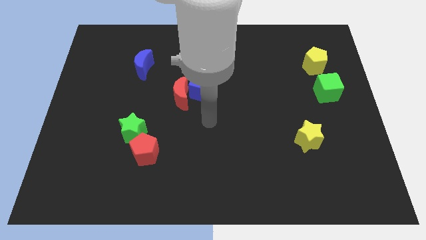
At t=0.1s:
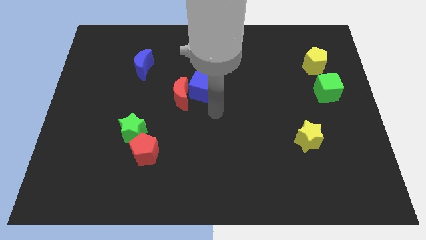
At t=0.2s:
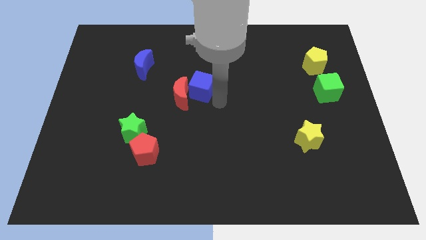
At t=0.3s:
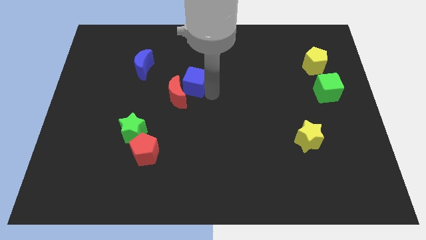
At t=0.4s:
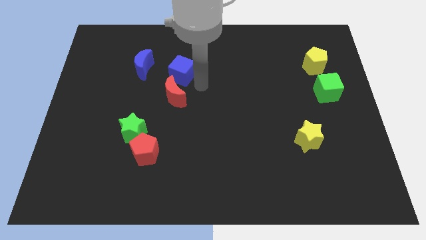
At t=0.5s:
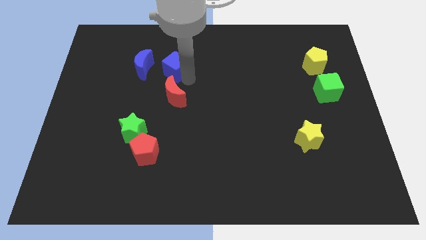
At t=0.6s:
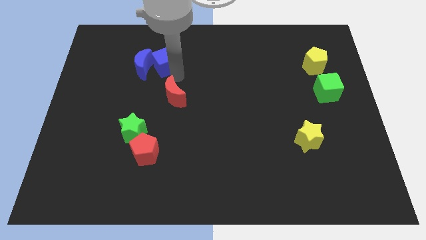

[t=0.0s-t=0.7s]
move the red moon away from the blue cube

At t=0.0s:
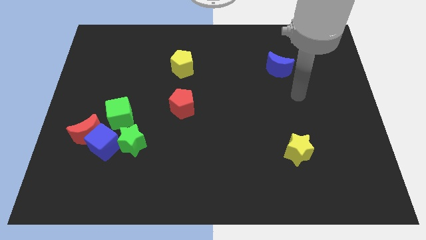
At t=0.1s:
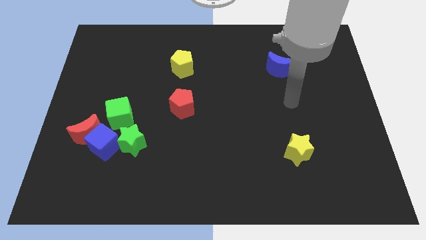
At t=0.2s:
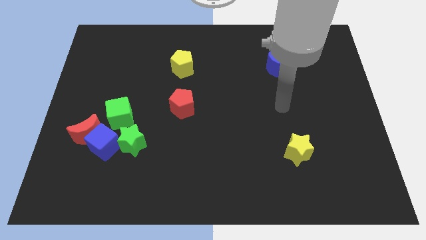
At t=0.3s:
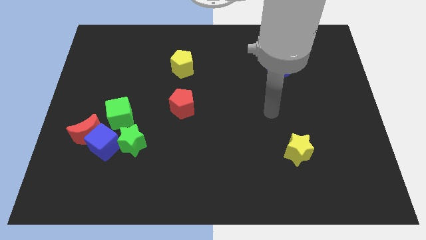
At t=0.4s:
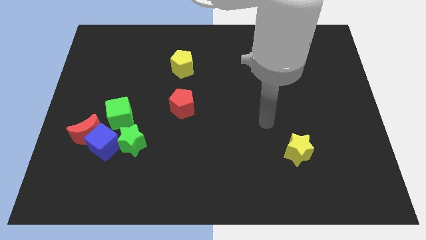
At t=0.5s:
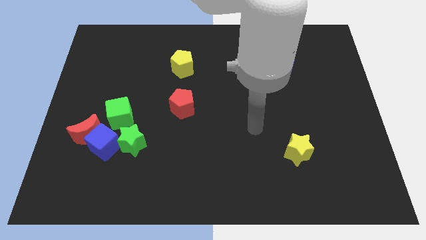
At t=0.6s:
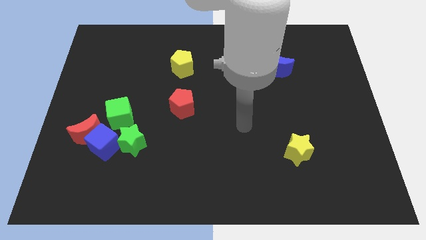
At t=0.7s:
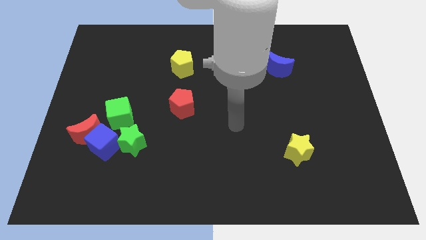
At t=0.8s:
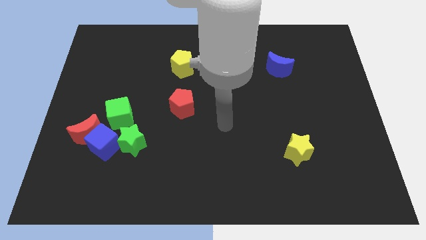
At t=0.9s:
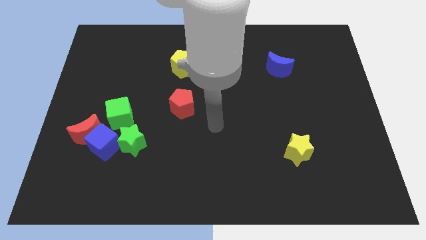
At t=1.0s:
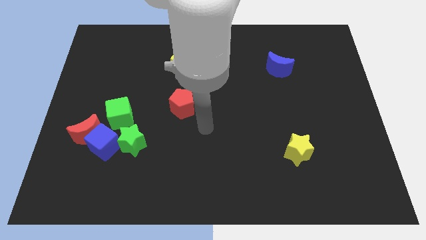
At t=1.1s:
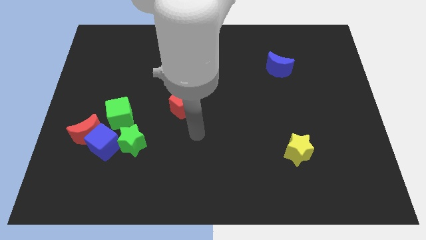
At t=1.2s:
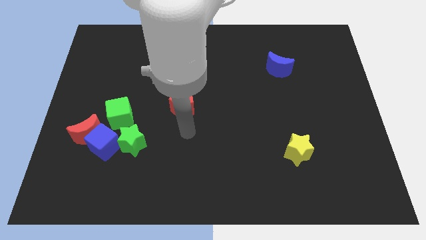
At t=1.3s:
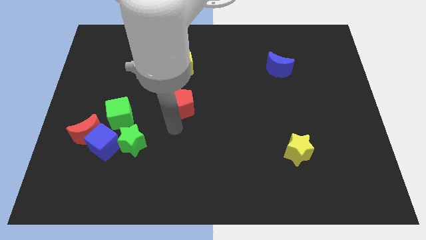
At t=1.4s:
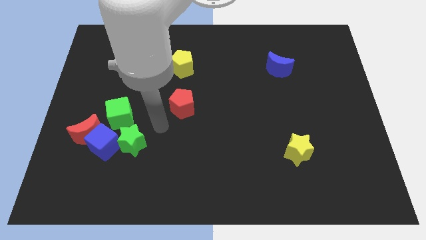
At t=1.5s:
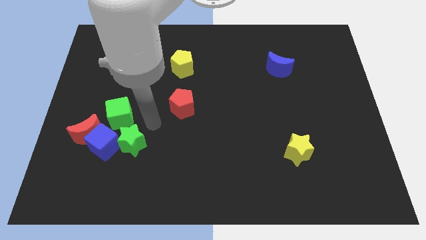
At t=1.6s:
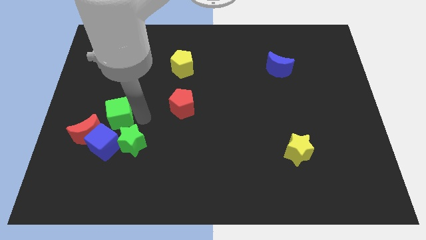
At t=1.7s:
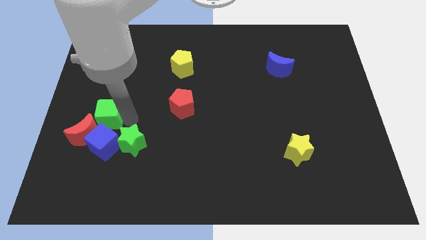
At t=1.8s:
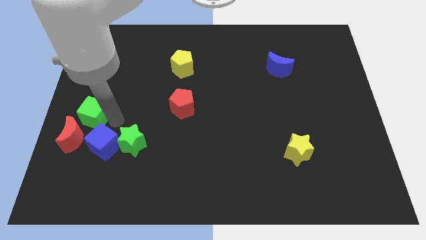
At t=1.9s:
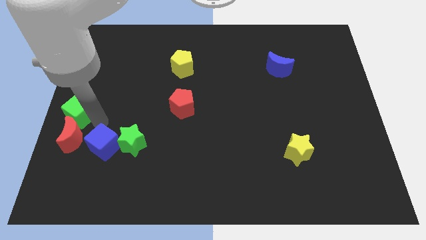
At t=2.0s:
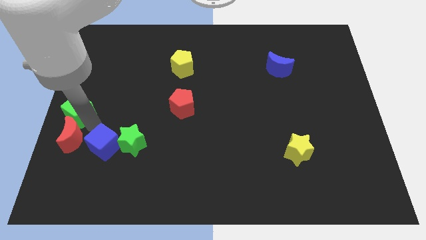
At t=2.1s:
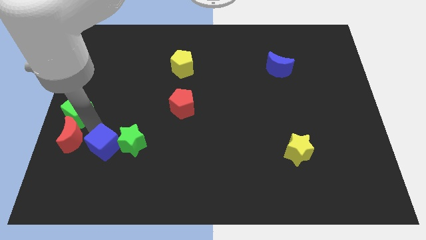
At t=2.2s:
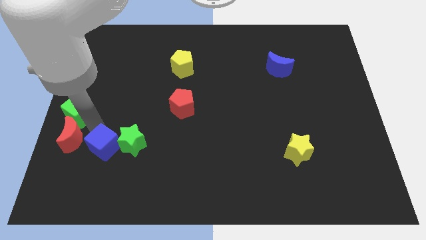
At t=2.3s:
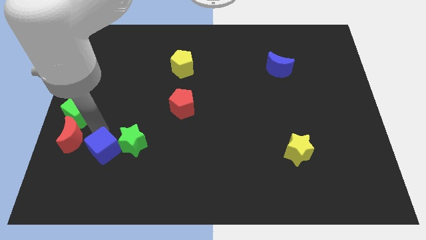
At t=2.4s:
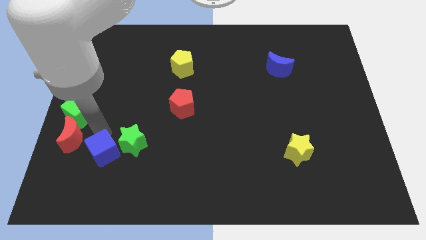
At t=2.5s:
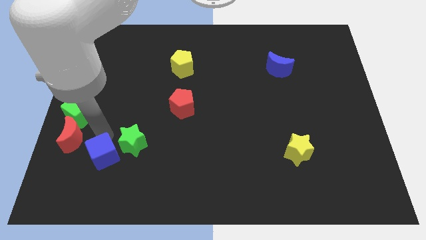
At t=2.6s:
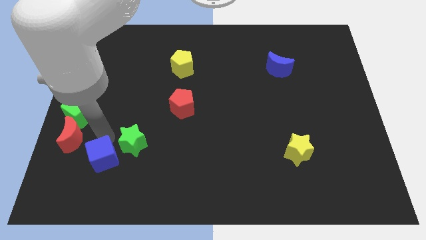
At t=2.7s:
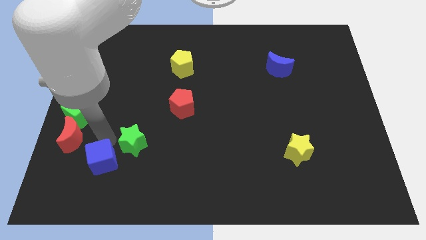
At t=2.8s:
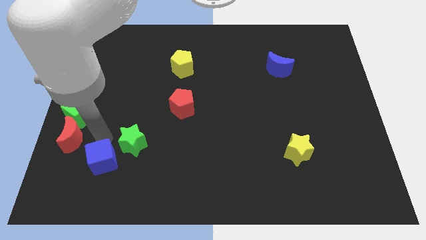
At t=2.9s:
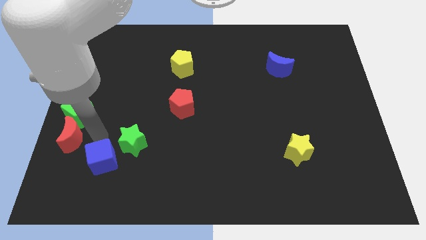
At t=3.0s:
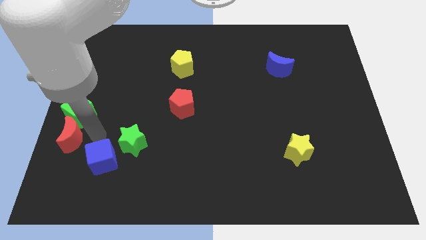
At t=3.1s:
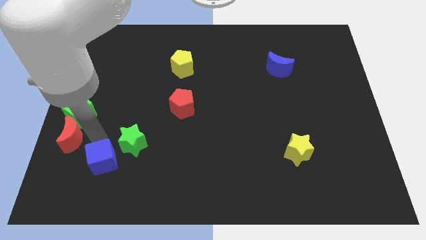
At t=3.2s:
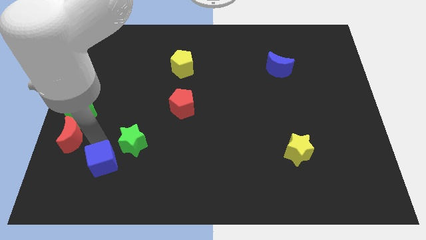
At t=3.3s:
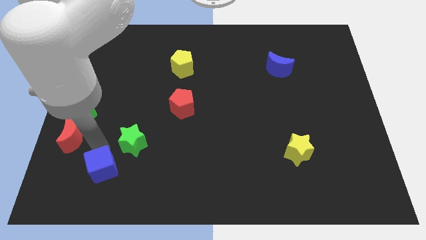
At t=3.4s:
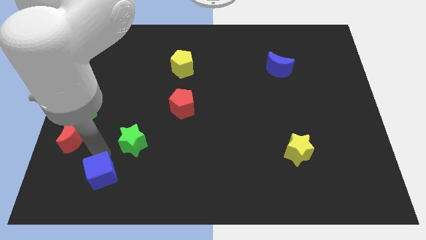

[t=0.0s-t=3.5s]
separate the blue cube from the group of blocks

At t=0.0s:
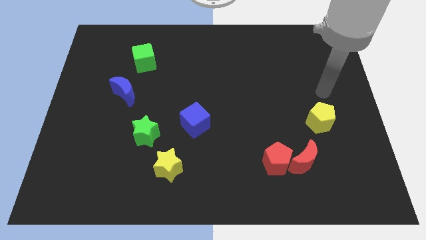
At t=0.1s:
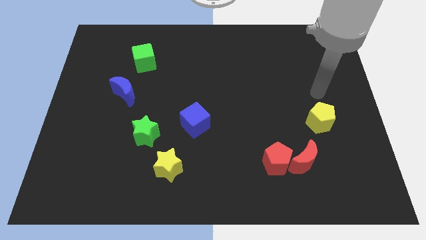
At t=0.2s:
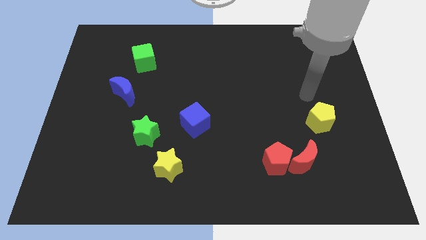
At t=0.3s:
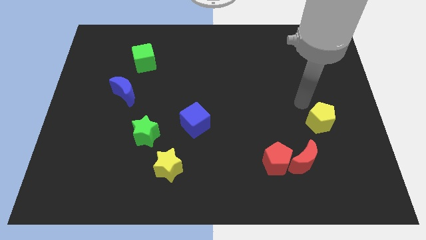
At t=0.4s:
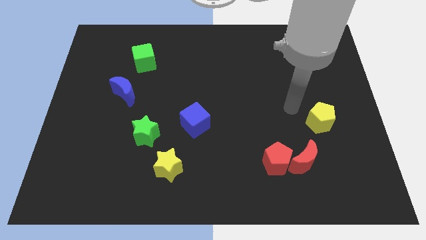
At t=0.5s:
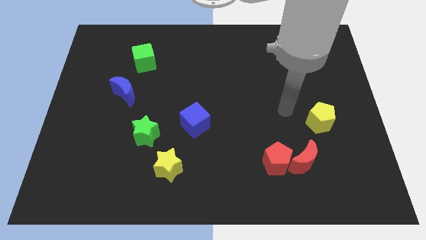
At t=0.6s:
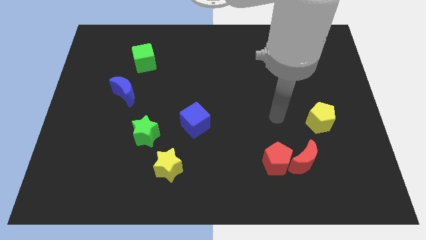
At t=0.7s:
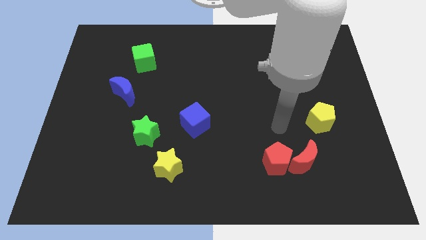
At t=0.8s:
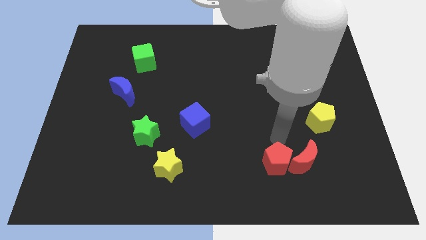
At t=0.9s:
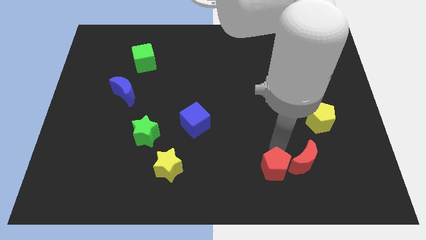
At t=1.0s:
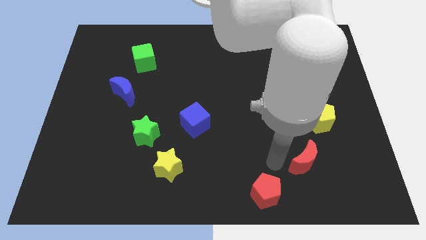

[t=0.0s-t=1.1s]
separate the red moon from the red pentagon

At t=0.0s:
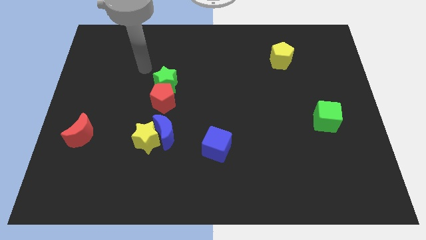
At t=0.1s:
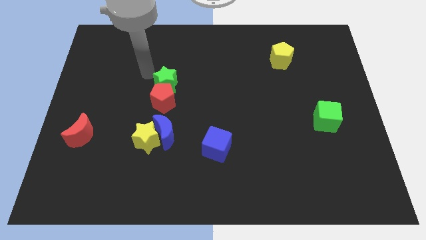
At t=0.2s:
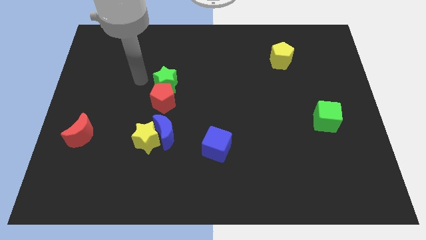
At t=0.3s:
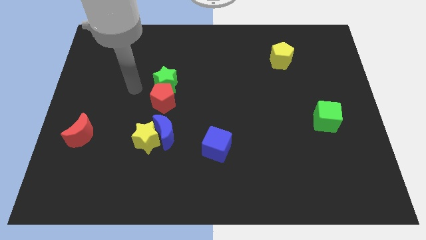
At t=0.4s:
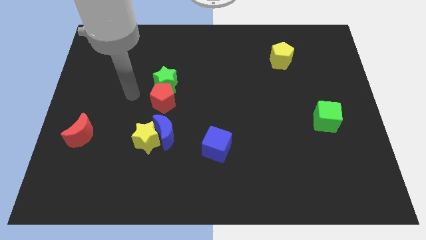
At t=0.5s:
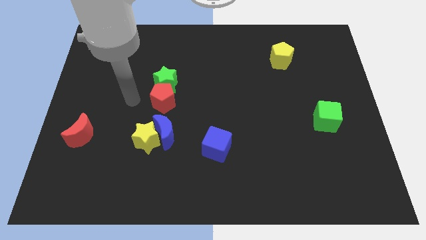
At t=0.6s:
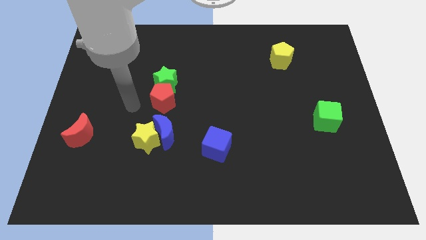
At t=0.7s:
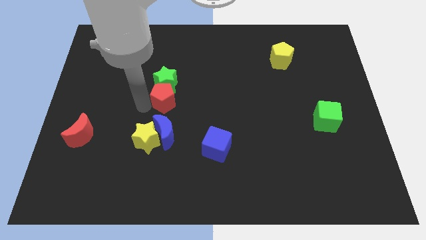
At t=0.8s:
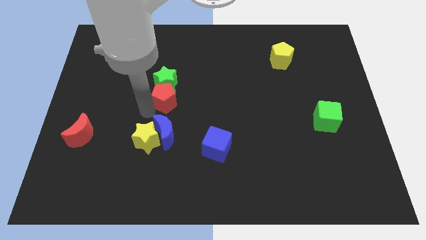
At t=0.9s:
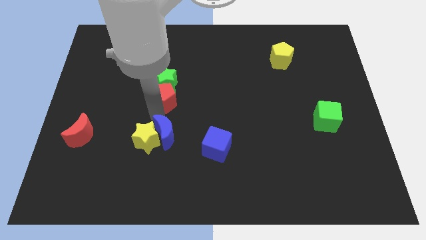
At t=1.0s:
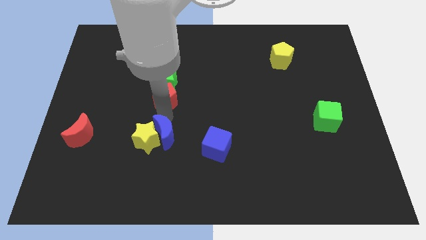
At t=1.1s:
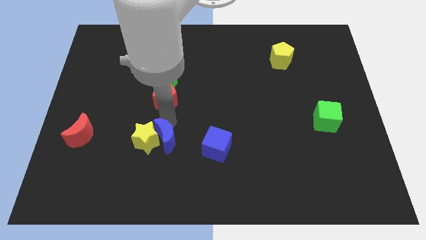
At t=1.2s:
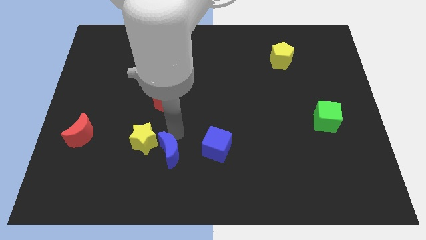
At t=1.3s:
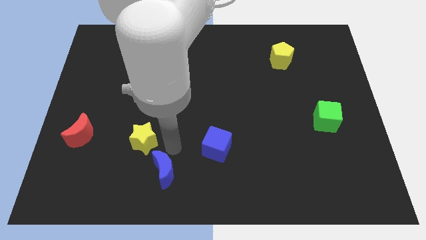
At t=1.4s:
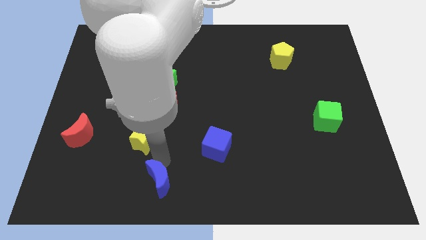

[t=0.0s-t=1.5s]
pull the yellow star apart from the blue moon

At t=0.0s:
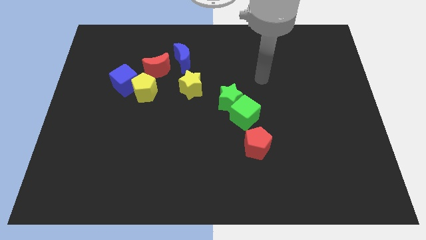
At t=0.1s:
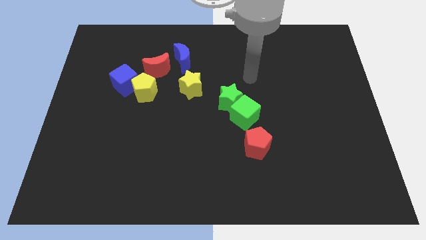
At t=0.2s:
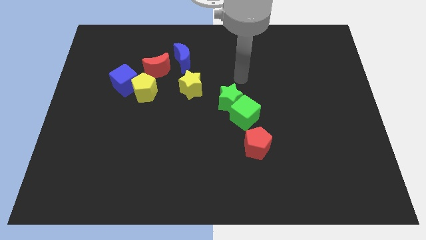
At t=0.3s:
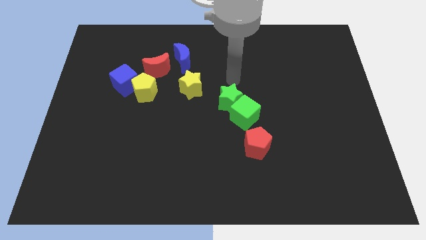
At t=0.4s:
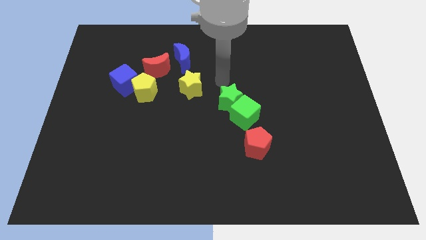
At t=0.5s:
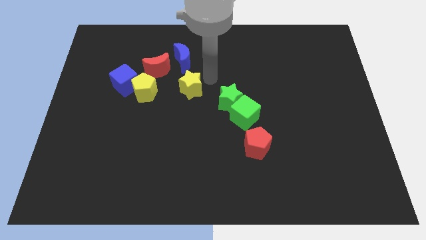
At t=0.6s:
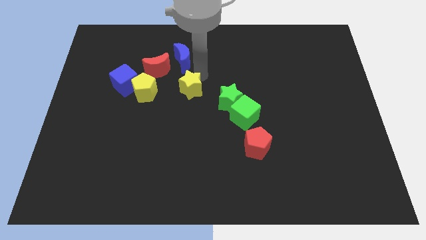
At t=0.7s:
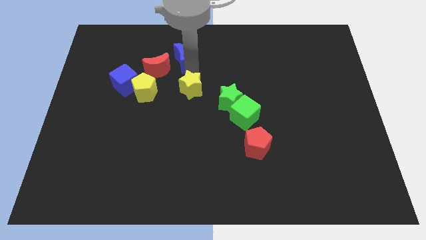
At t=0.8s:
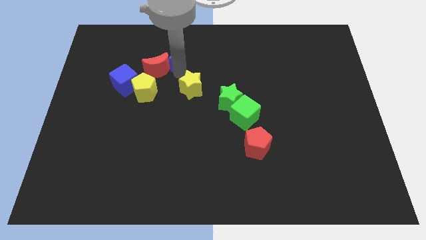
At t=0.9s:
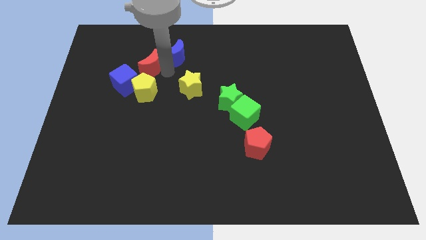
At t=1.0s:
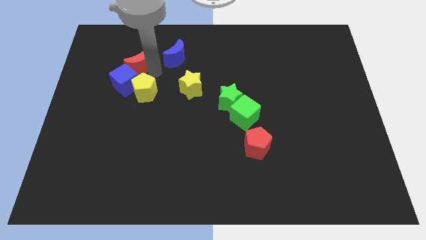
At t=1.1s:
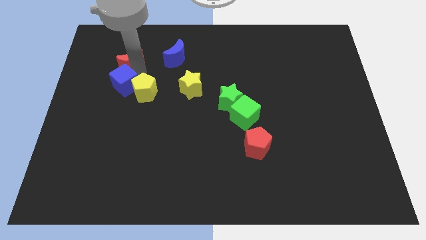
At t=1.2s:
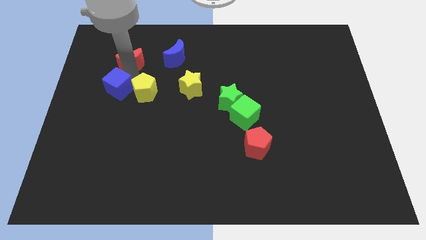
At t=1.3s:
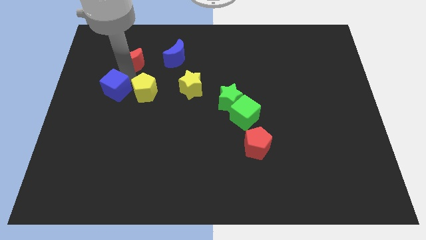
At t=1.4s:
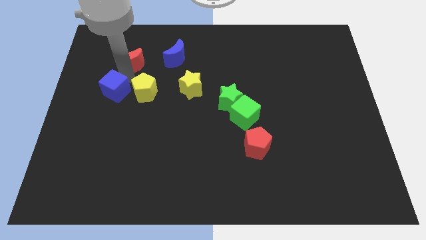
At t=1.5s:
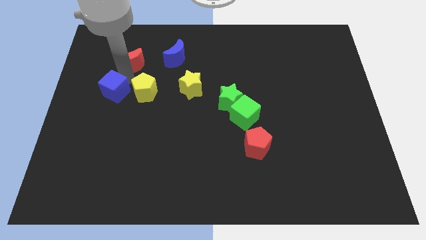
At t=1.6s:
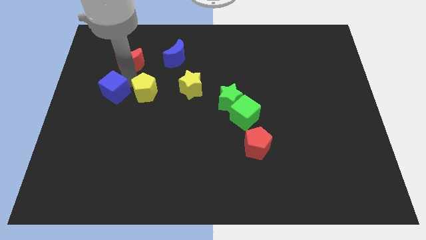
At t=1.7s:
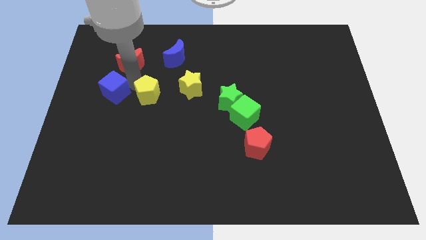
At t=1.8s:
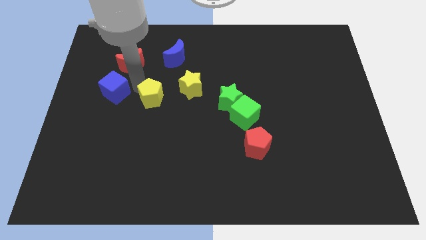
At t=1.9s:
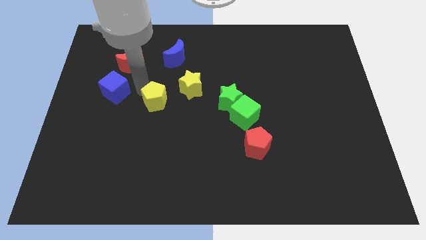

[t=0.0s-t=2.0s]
separate the yellow pentagon from the blue cube and red moon

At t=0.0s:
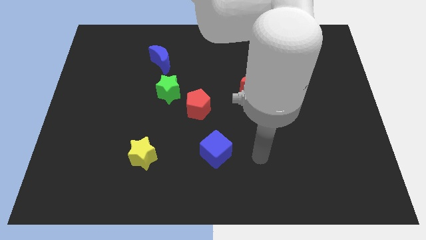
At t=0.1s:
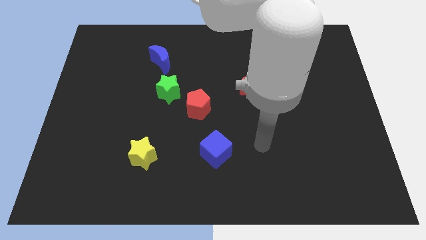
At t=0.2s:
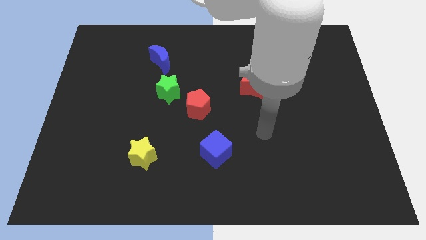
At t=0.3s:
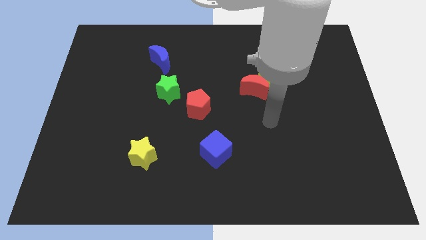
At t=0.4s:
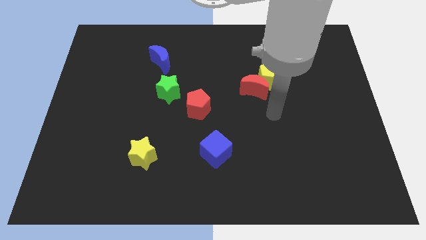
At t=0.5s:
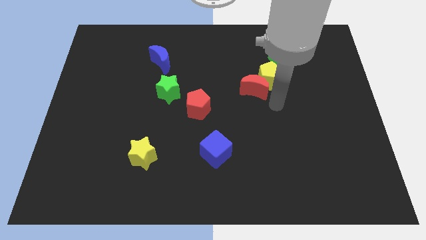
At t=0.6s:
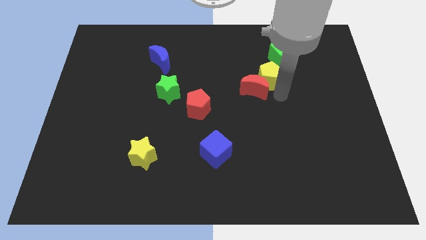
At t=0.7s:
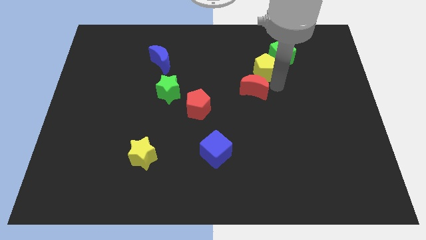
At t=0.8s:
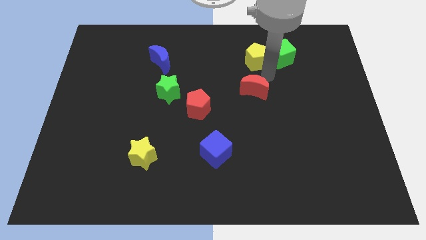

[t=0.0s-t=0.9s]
move the red moon away from the yellow pentagon
